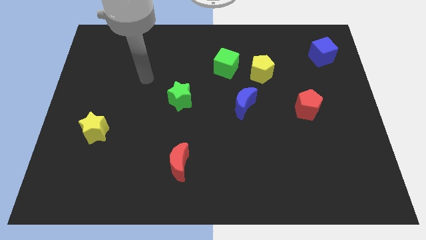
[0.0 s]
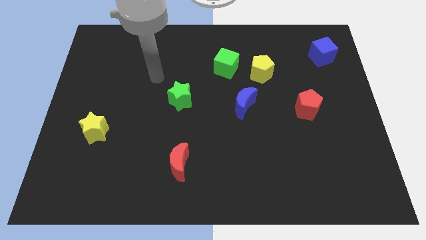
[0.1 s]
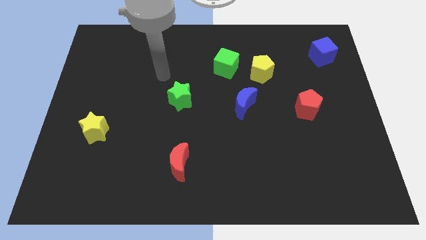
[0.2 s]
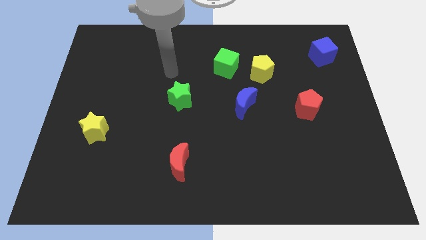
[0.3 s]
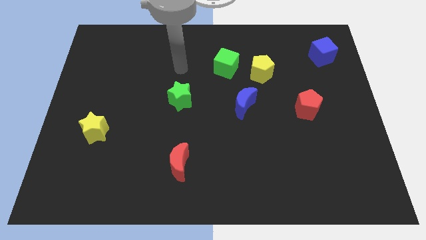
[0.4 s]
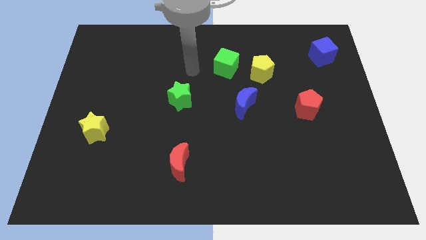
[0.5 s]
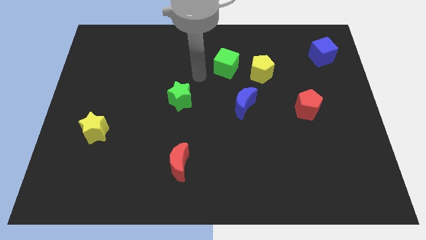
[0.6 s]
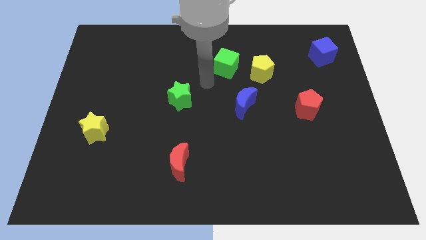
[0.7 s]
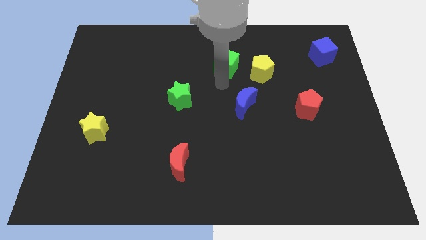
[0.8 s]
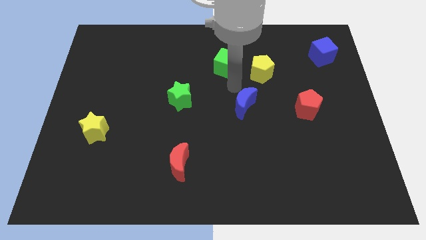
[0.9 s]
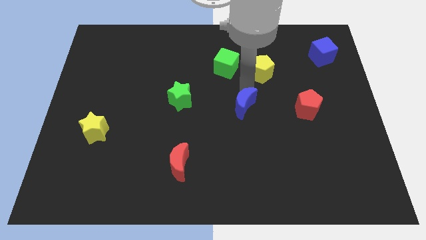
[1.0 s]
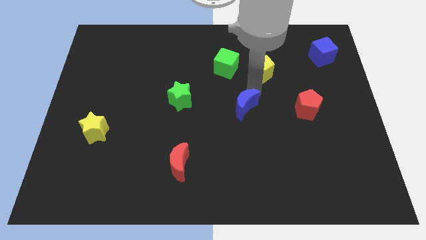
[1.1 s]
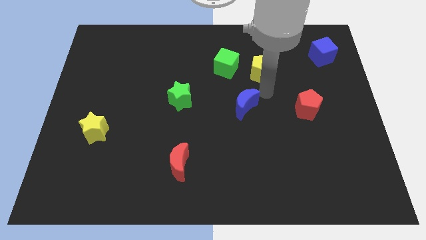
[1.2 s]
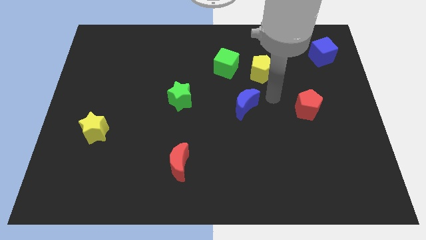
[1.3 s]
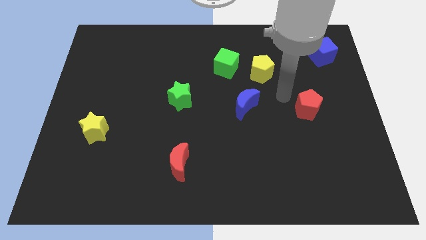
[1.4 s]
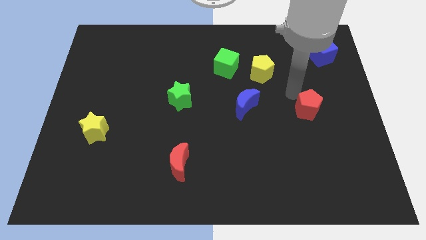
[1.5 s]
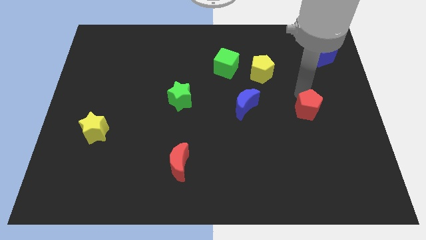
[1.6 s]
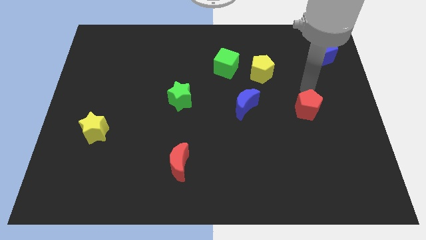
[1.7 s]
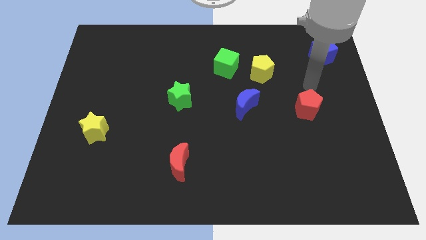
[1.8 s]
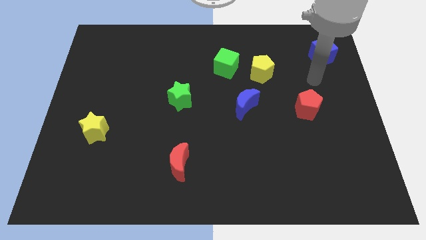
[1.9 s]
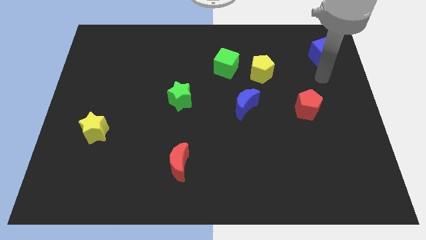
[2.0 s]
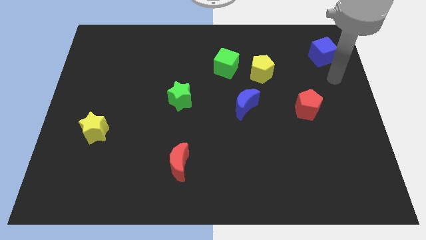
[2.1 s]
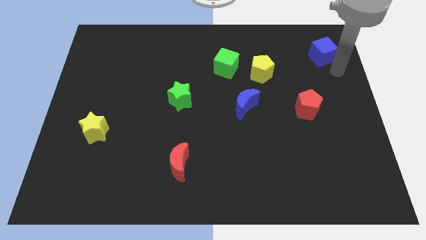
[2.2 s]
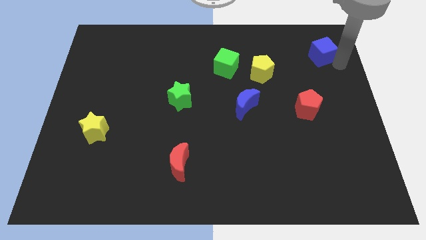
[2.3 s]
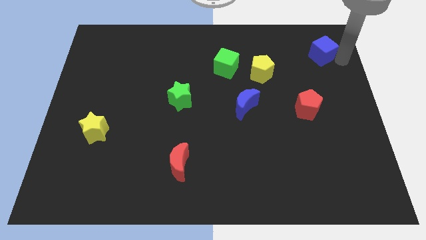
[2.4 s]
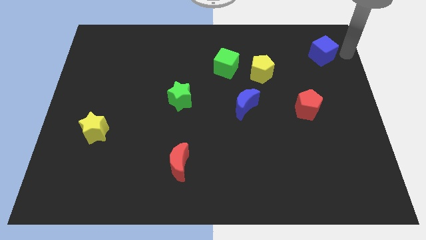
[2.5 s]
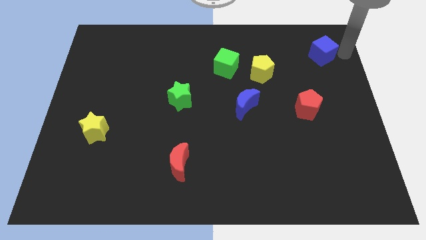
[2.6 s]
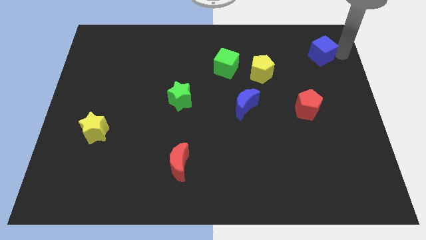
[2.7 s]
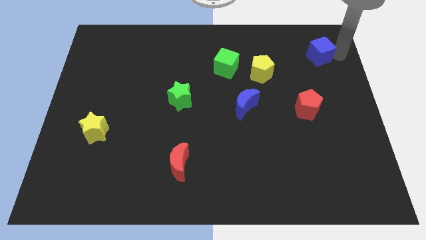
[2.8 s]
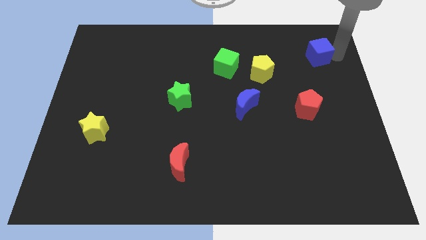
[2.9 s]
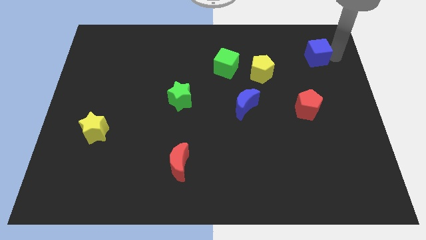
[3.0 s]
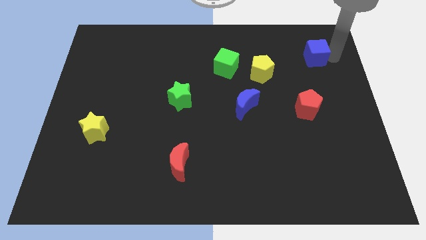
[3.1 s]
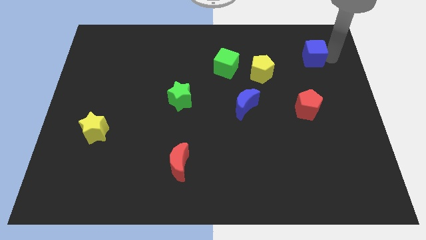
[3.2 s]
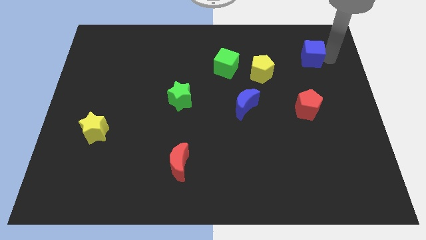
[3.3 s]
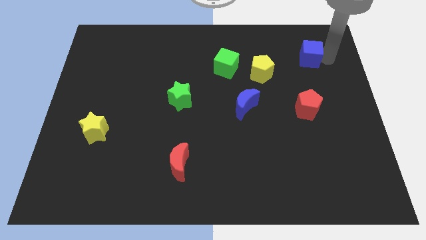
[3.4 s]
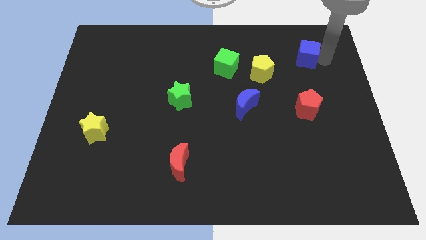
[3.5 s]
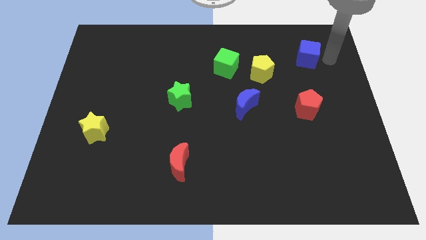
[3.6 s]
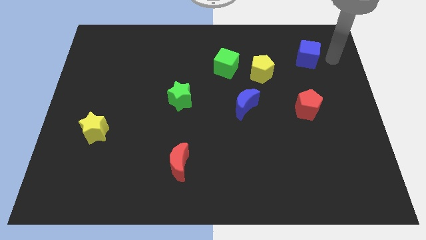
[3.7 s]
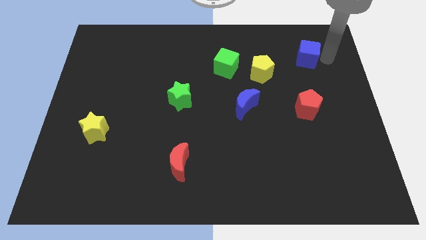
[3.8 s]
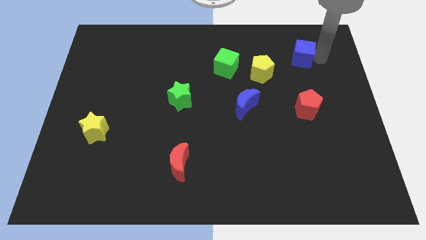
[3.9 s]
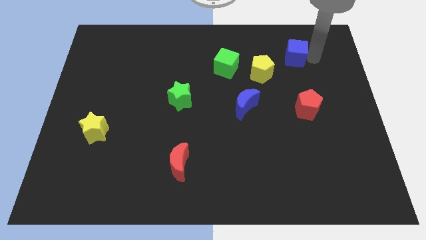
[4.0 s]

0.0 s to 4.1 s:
slightly move the blue cube to the left

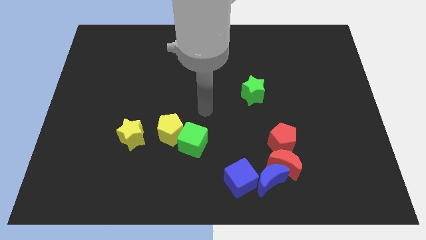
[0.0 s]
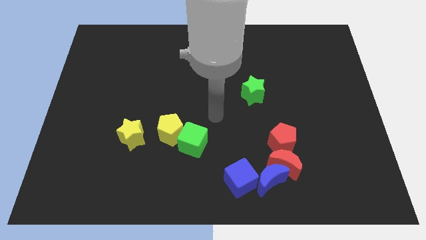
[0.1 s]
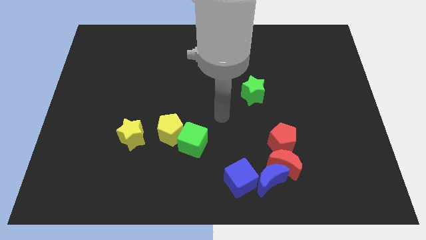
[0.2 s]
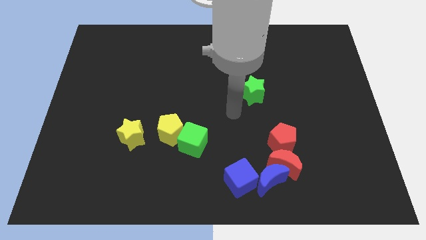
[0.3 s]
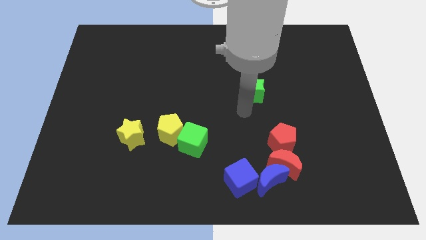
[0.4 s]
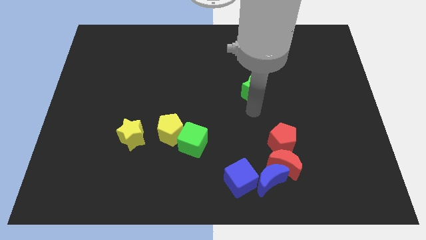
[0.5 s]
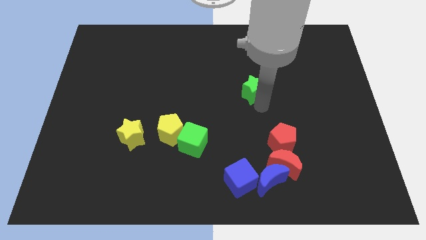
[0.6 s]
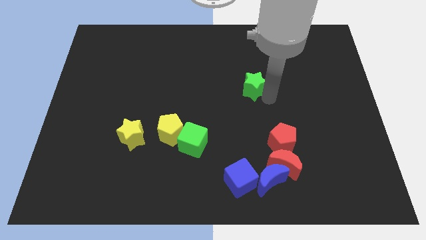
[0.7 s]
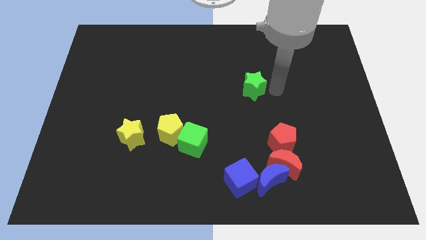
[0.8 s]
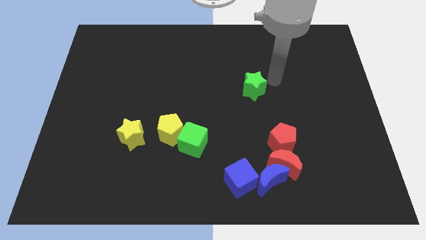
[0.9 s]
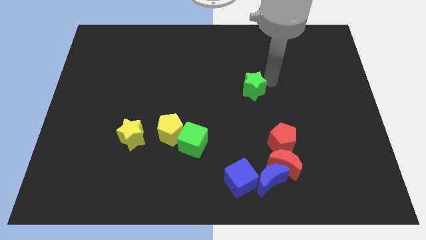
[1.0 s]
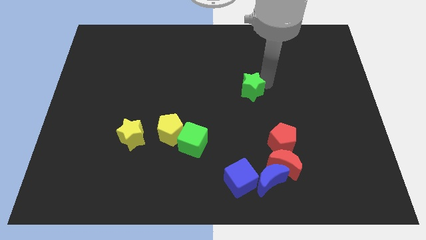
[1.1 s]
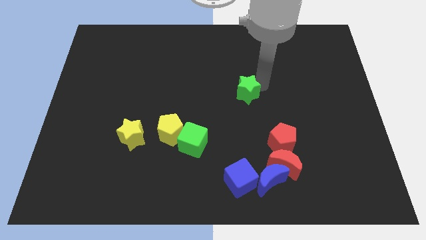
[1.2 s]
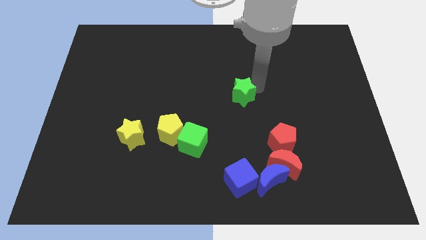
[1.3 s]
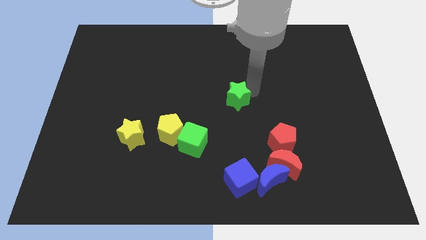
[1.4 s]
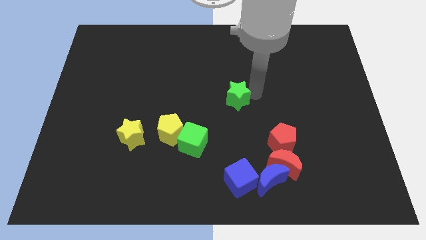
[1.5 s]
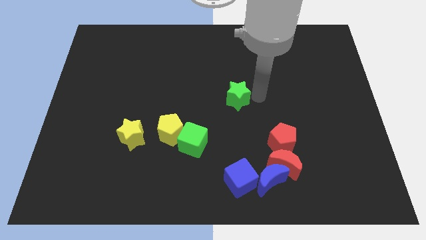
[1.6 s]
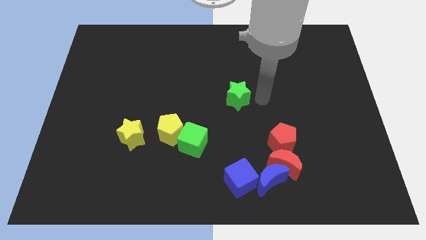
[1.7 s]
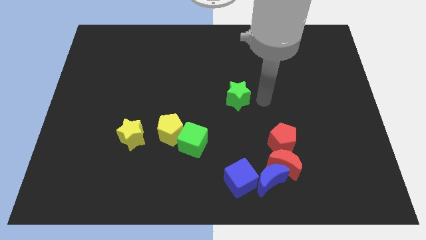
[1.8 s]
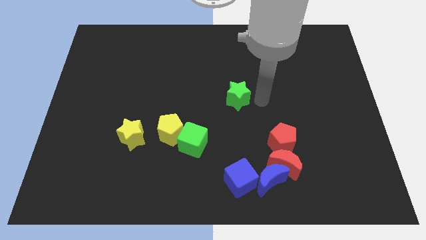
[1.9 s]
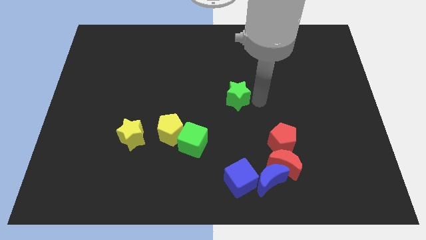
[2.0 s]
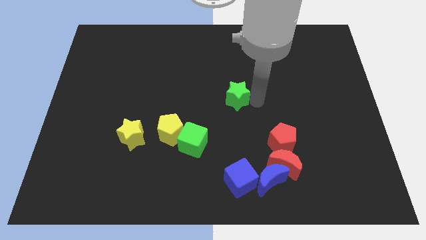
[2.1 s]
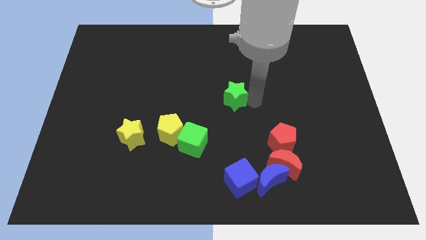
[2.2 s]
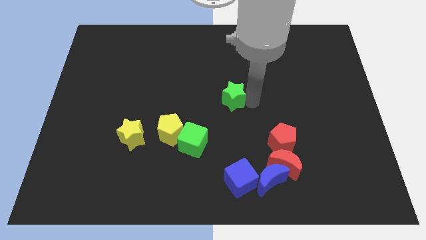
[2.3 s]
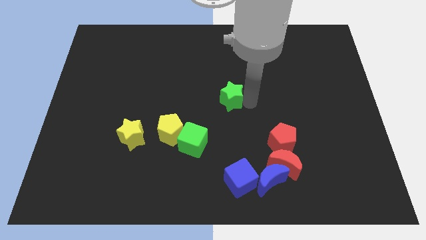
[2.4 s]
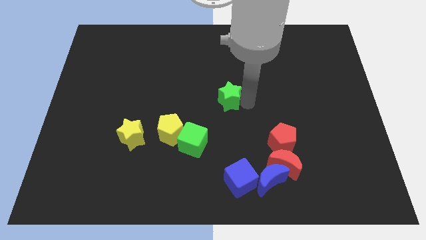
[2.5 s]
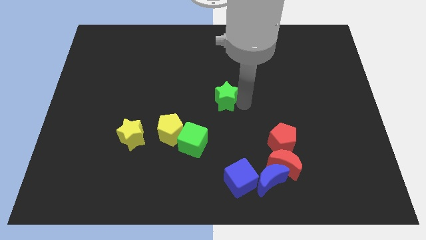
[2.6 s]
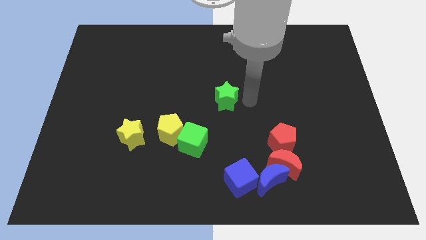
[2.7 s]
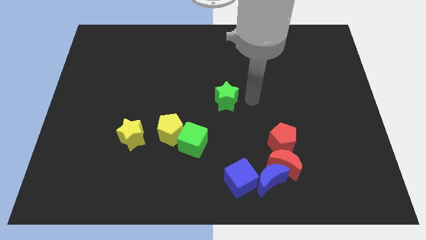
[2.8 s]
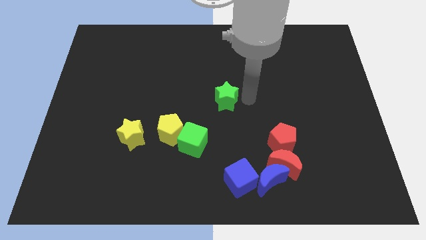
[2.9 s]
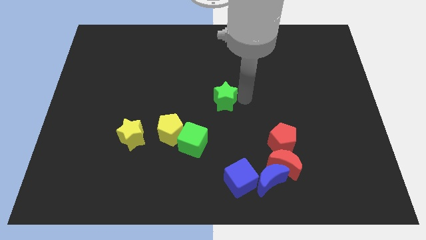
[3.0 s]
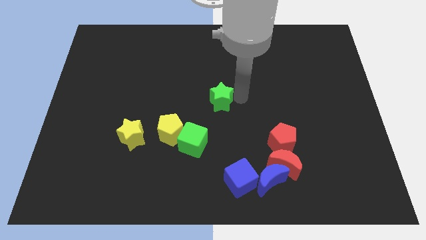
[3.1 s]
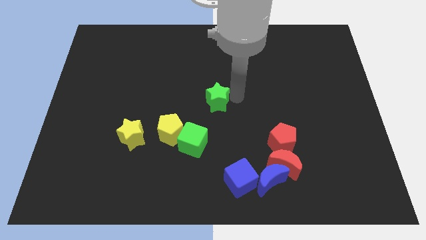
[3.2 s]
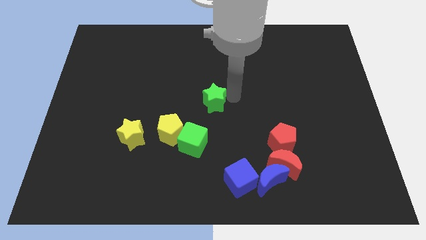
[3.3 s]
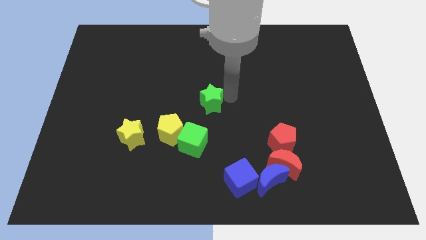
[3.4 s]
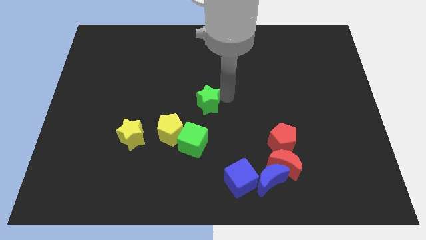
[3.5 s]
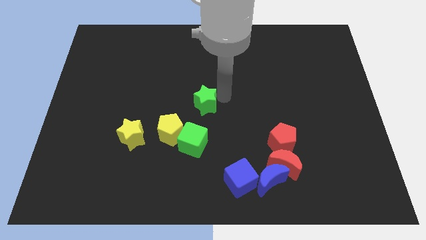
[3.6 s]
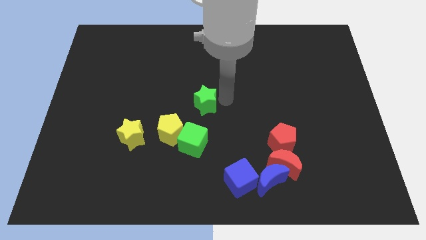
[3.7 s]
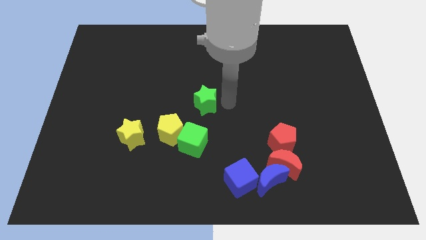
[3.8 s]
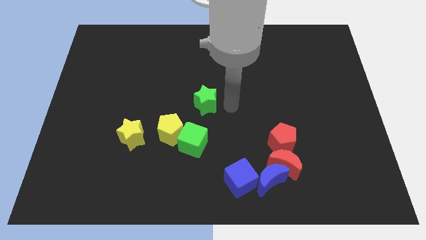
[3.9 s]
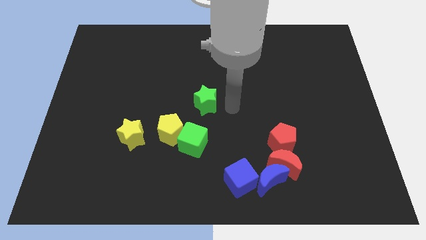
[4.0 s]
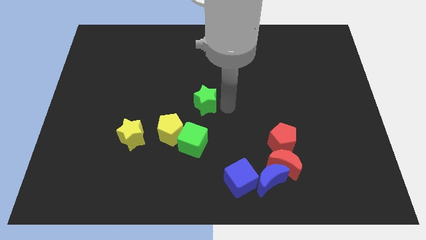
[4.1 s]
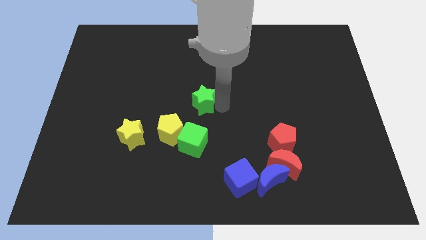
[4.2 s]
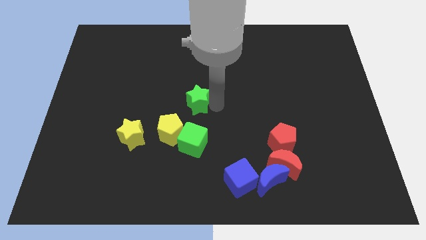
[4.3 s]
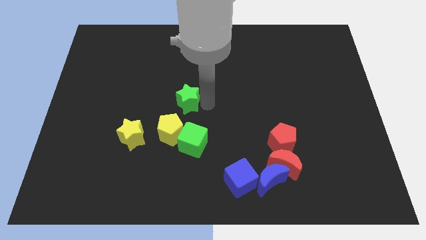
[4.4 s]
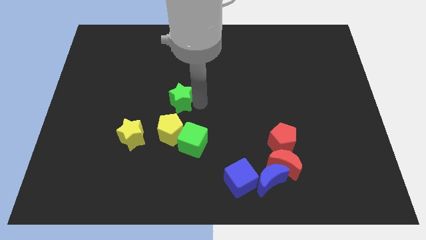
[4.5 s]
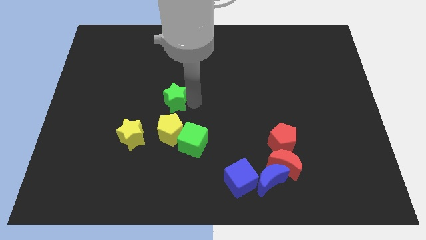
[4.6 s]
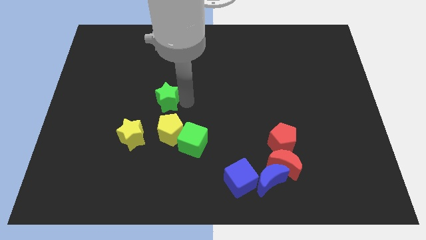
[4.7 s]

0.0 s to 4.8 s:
push the green star to the left
